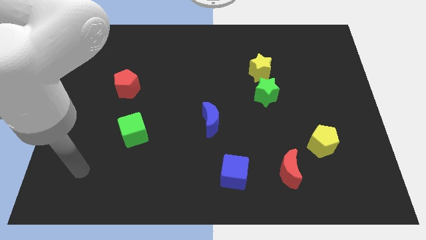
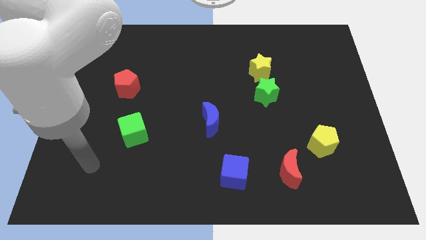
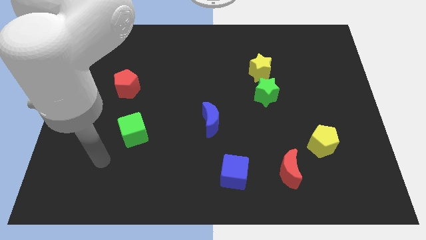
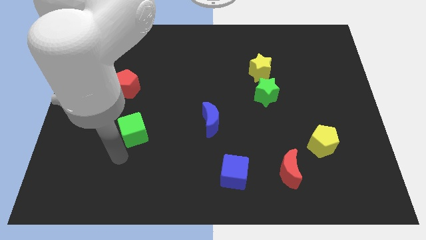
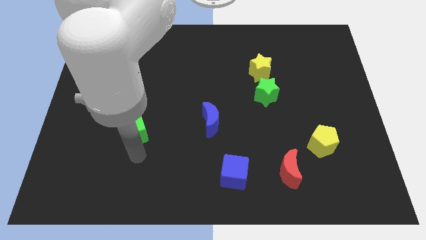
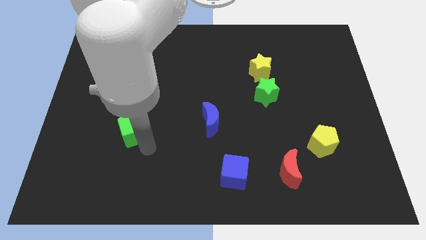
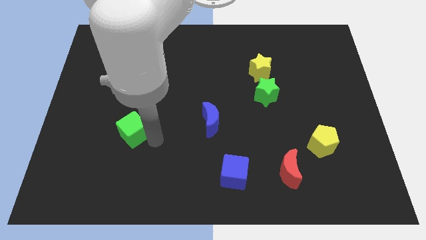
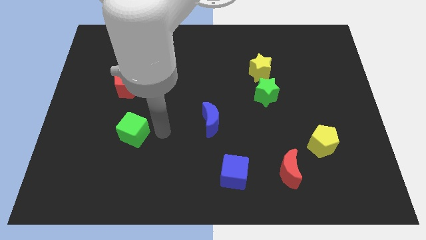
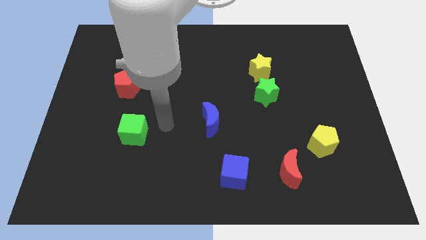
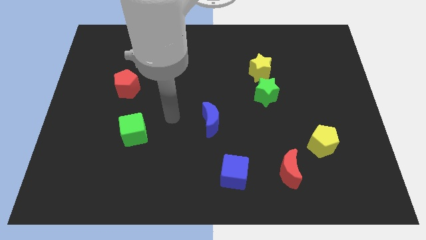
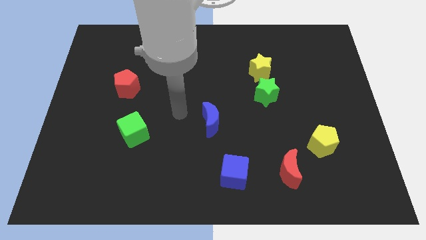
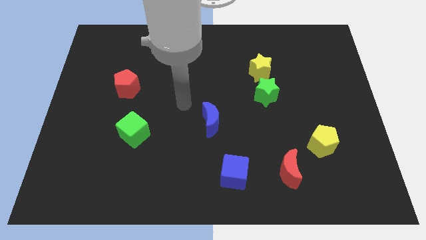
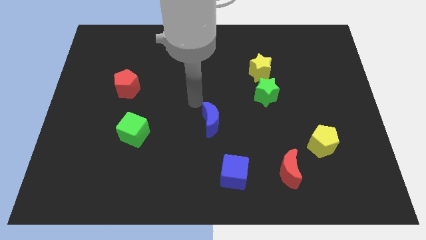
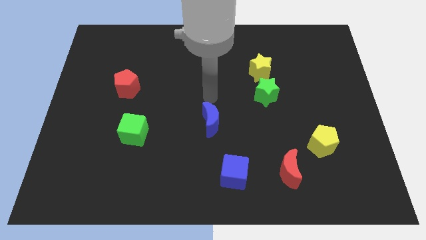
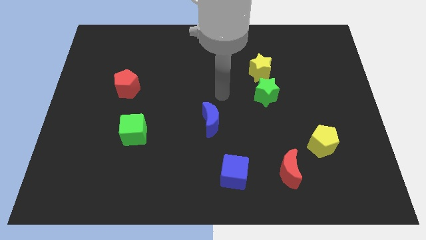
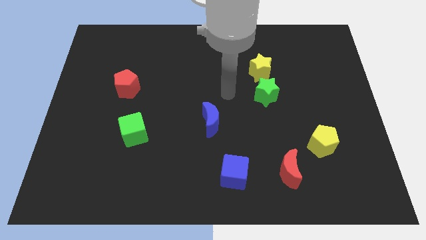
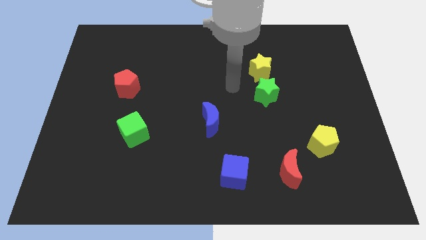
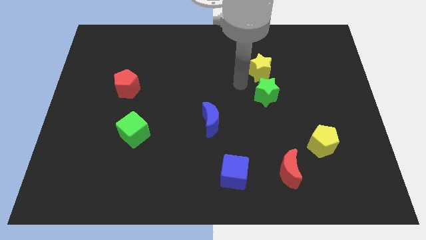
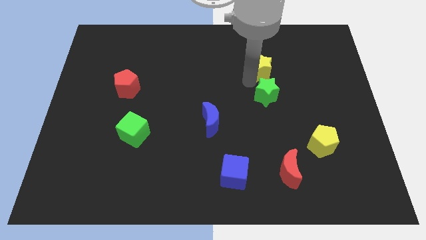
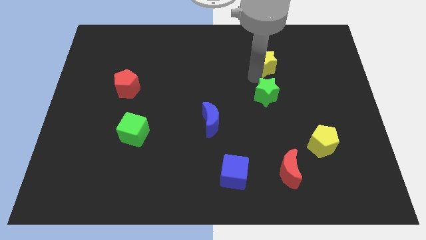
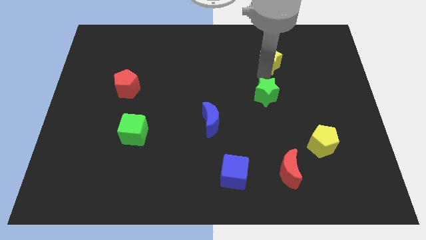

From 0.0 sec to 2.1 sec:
pull the green star apart from the yellow star

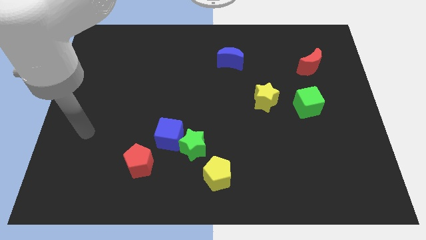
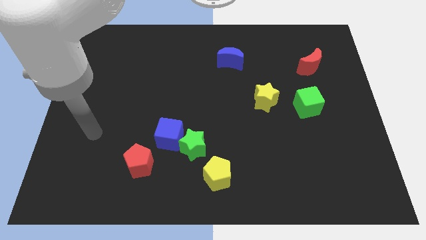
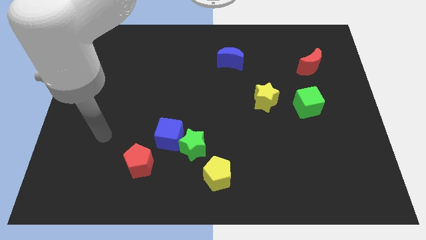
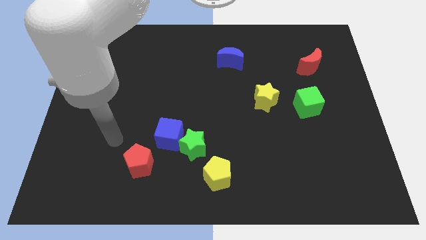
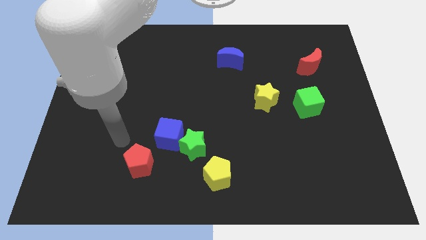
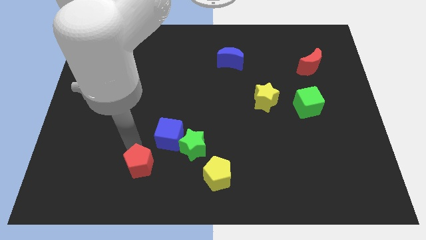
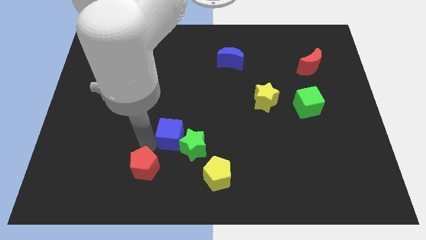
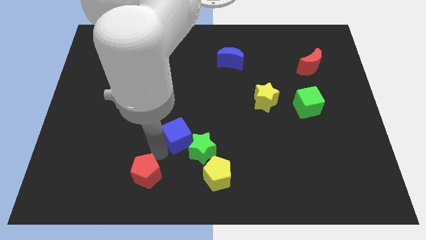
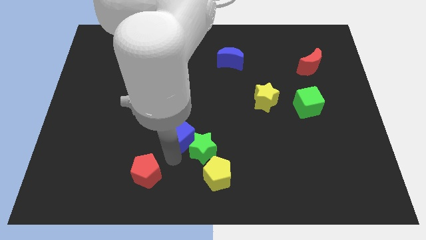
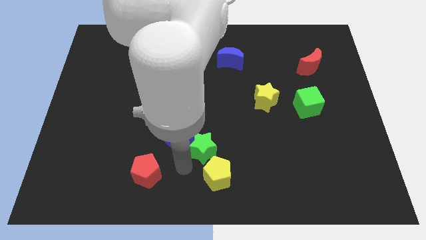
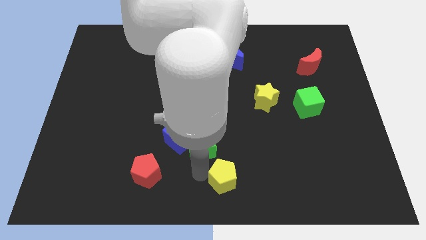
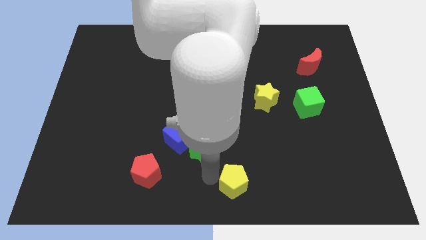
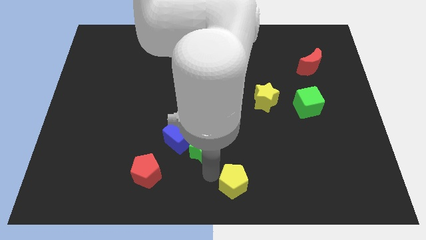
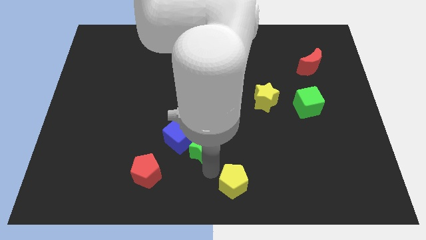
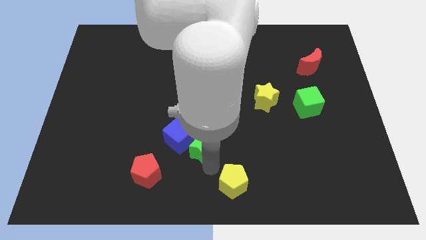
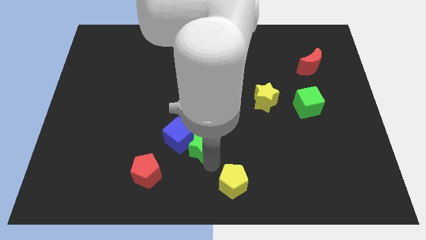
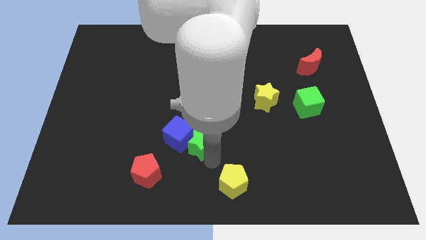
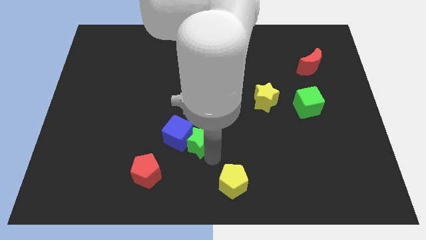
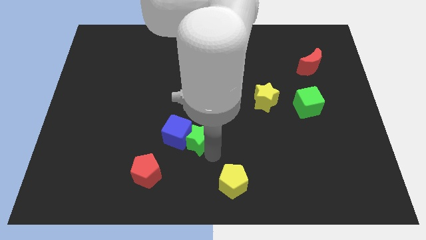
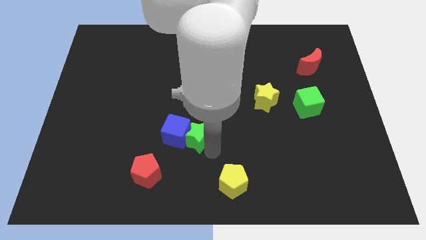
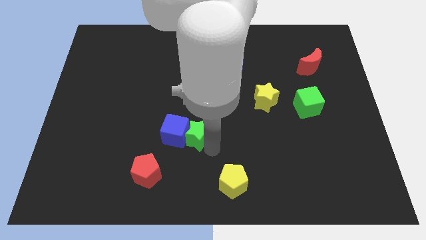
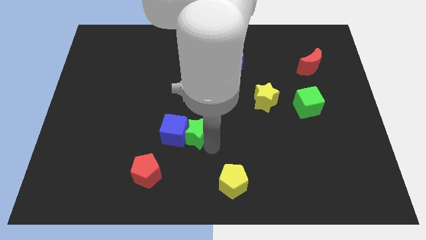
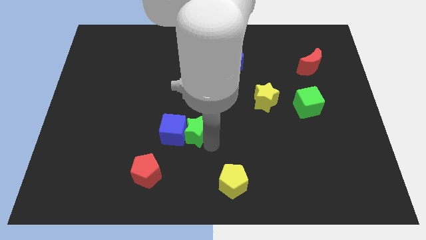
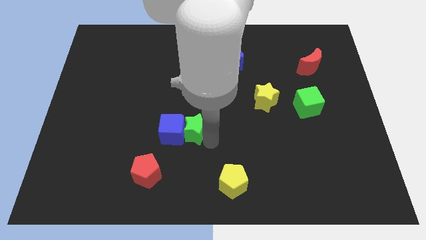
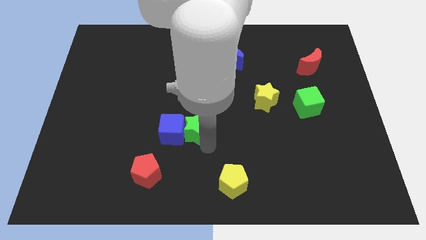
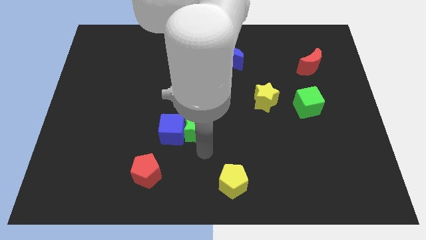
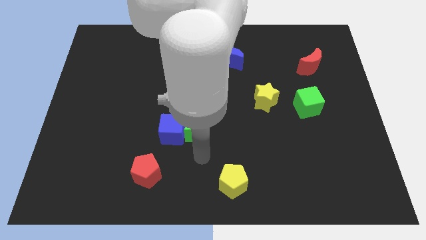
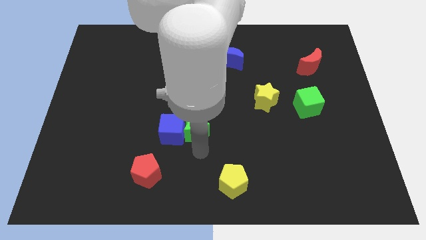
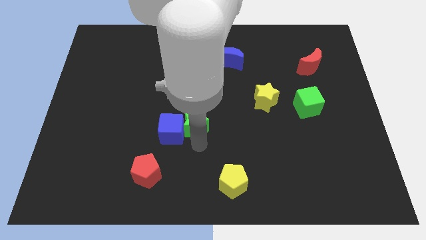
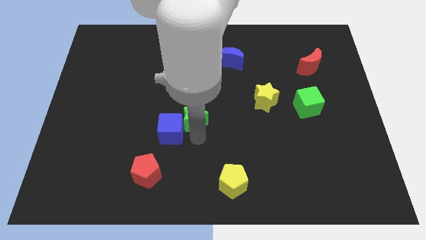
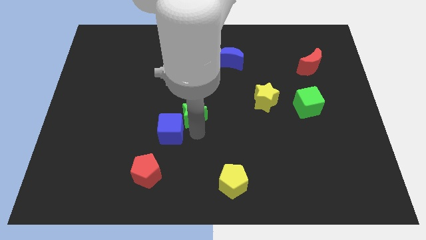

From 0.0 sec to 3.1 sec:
pull the green star apart from the blue cube and yellow pentagon

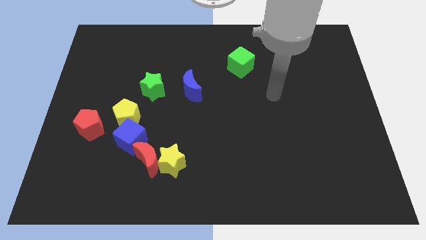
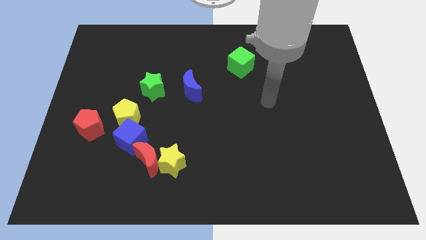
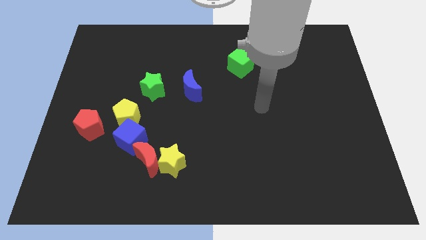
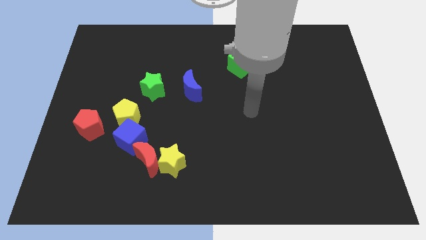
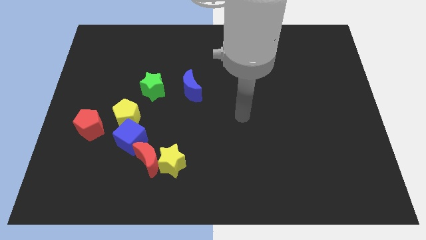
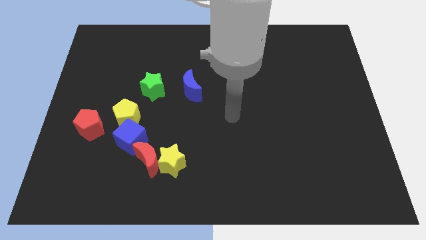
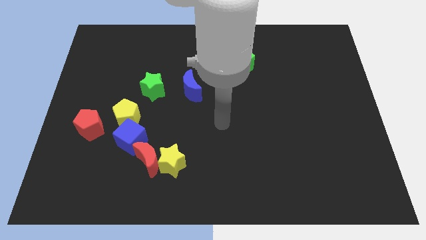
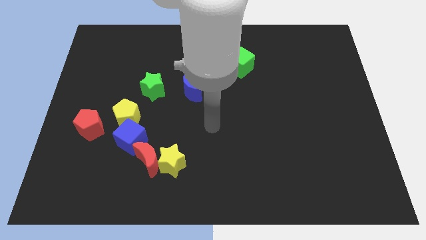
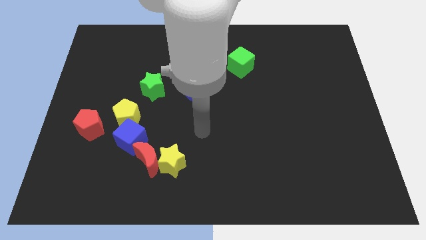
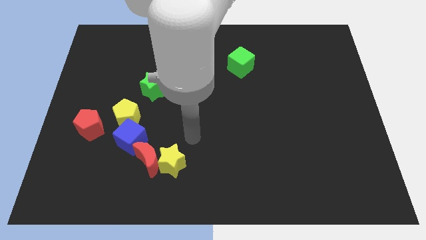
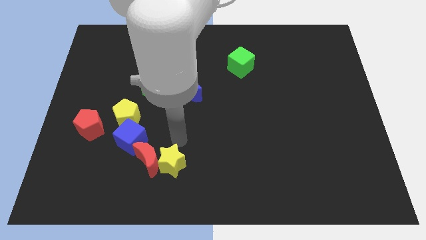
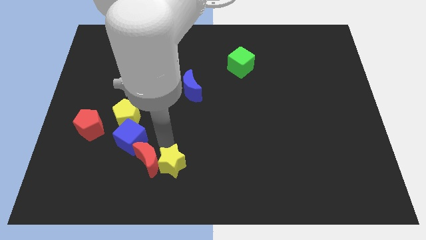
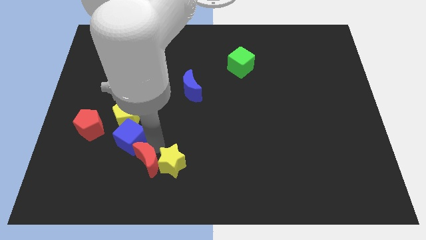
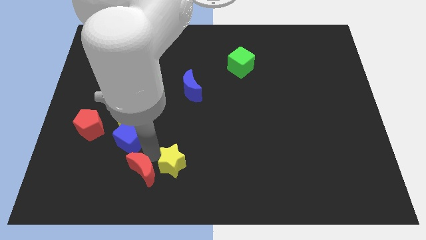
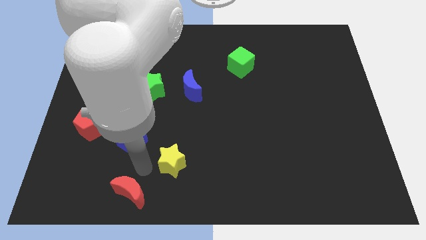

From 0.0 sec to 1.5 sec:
separate the yellow star from the red moon

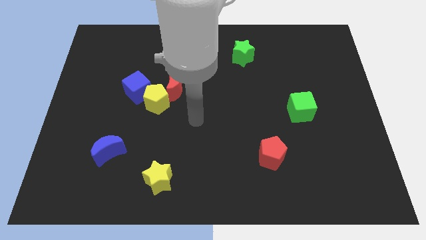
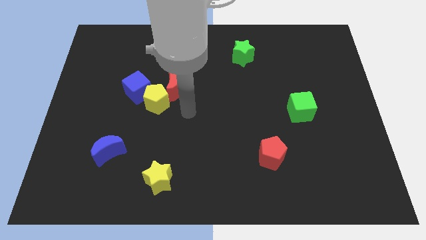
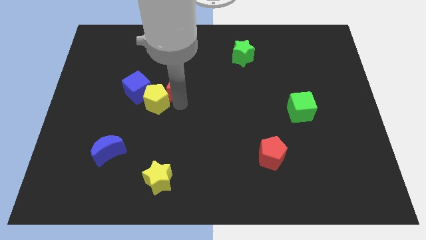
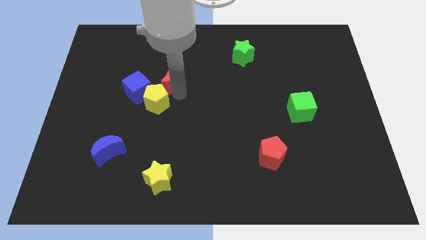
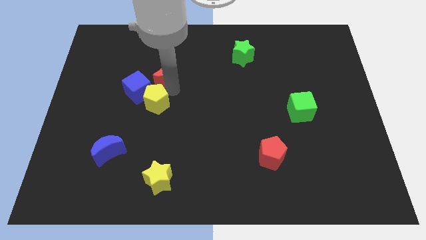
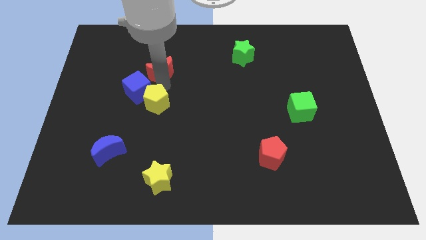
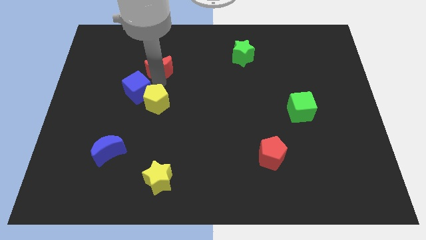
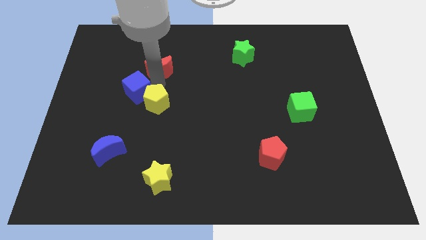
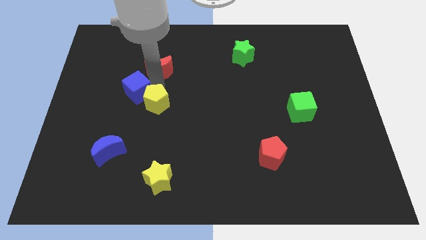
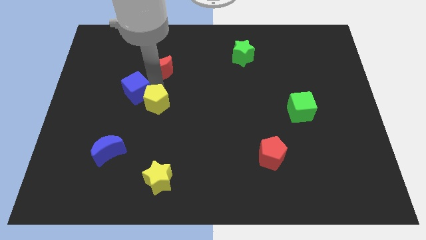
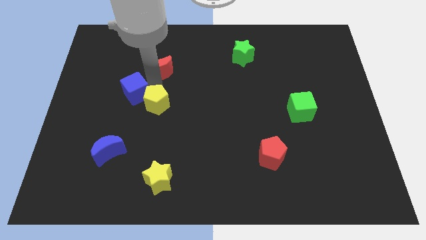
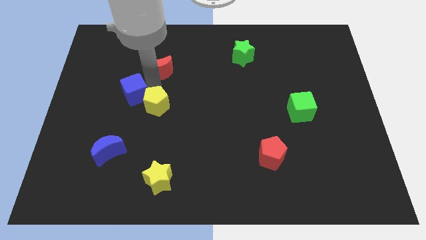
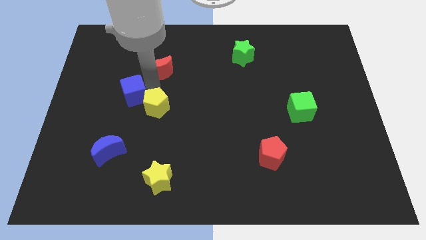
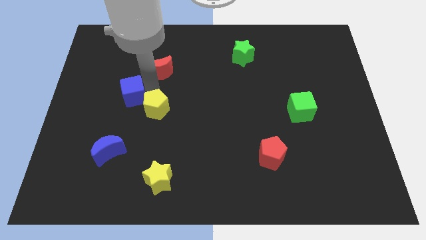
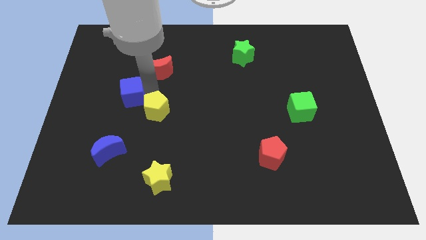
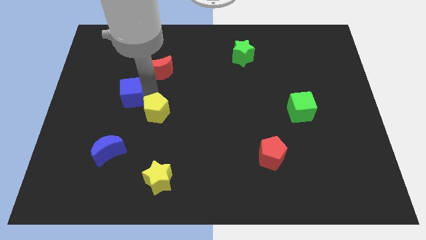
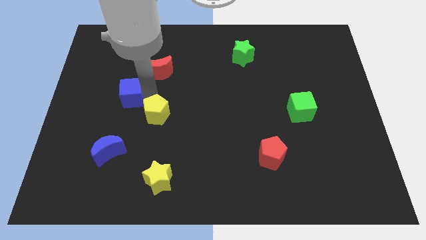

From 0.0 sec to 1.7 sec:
move the yellow pentagon away from the blue cube and red moon

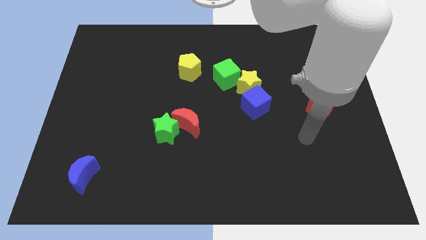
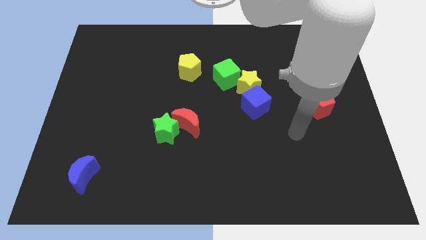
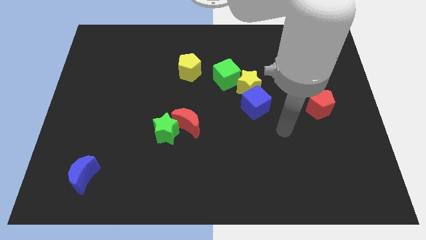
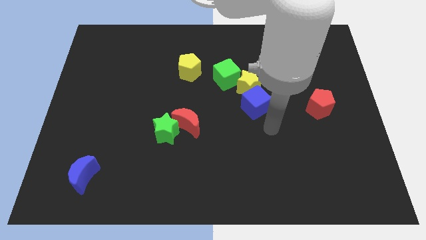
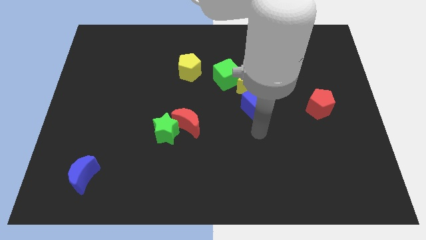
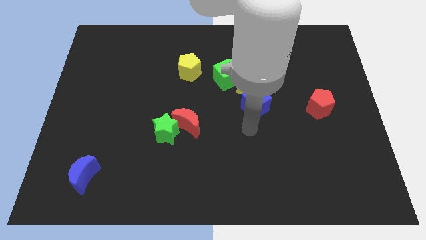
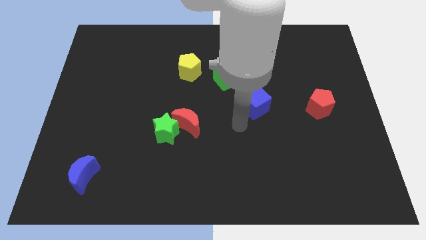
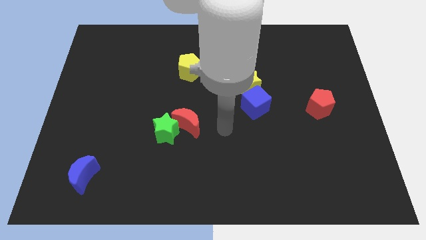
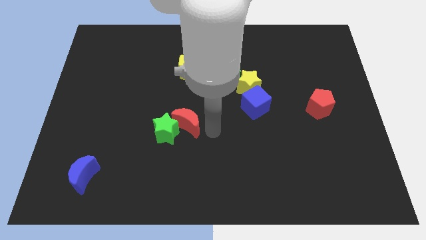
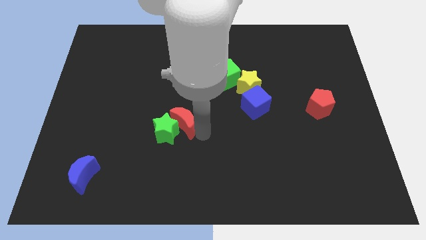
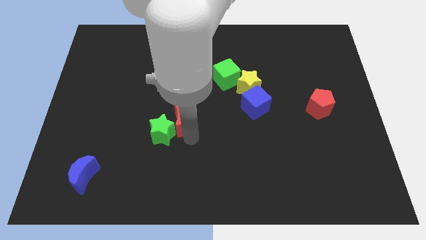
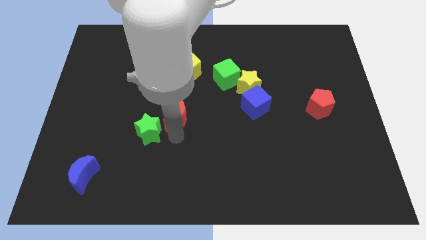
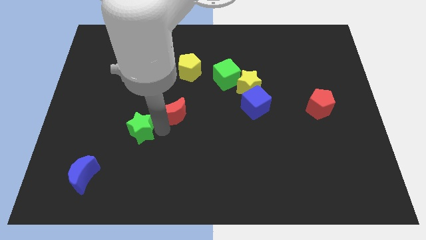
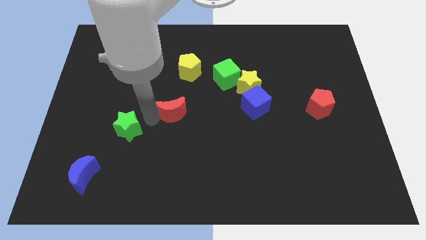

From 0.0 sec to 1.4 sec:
move the red moon away from the green star
